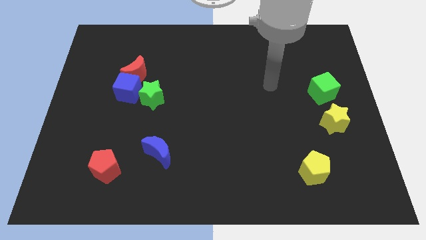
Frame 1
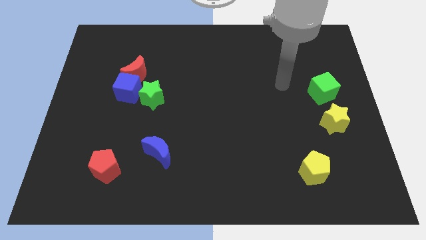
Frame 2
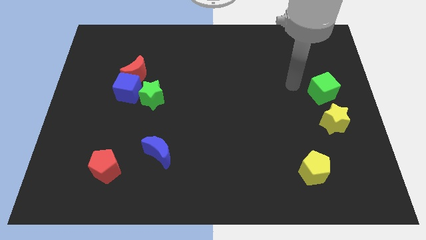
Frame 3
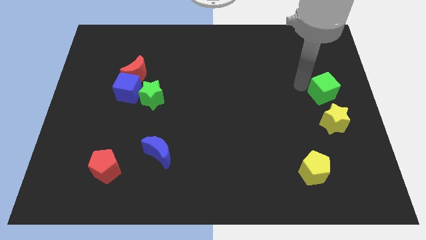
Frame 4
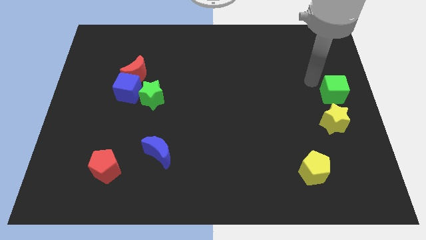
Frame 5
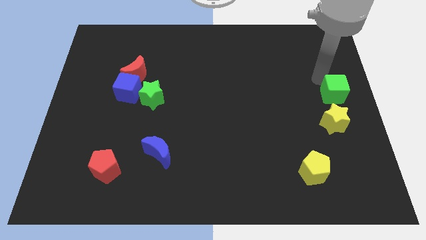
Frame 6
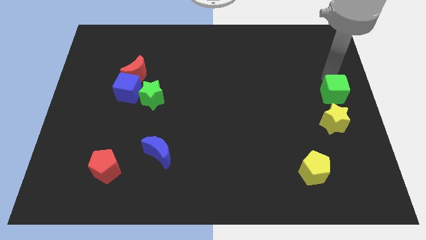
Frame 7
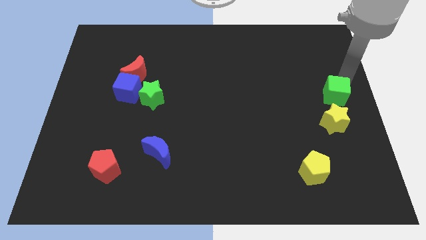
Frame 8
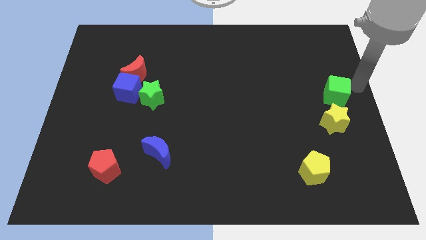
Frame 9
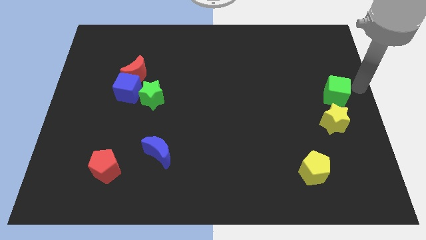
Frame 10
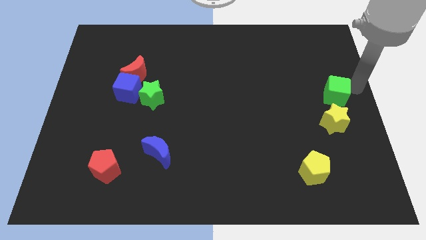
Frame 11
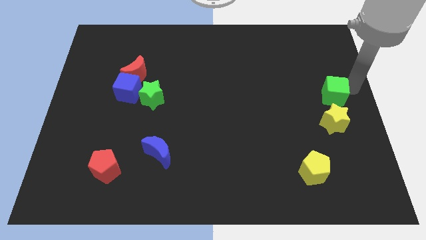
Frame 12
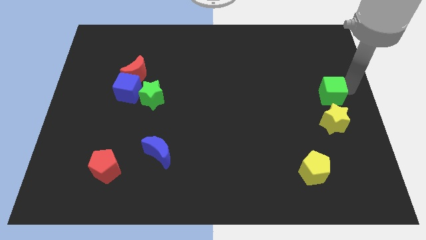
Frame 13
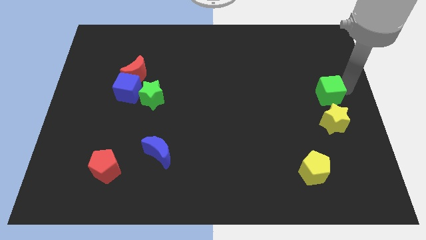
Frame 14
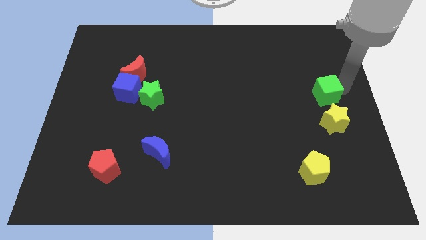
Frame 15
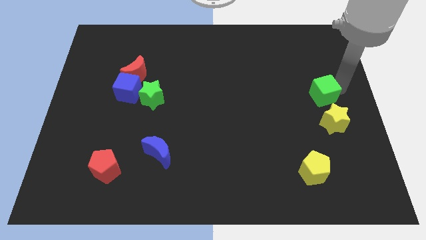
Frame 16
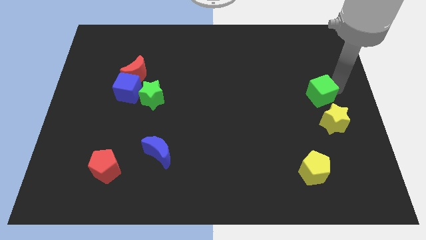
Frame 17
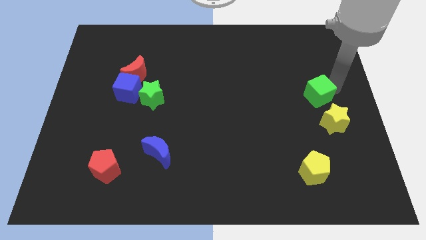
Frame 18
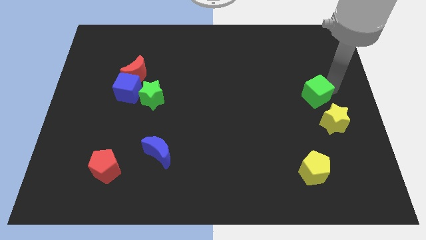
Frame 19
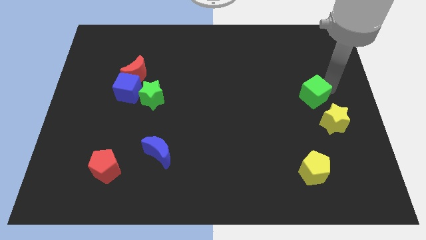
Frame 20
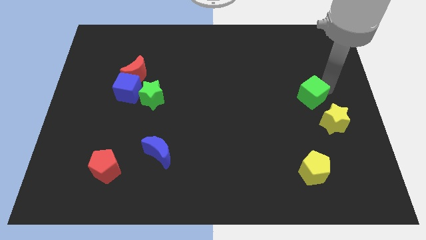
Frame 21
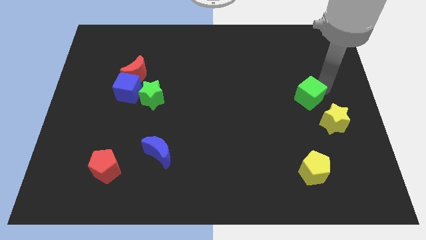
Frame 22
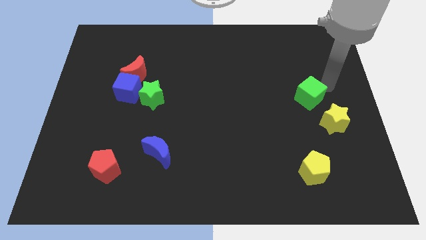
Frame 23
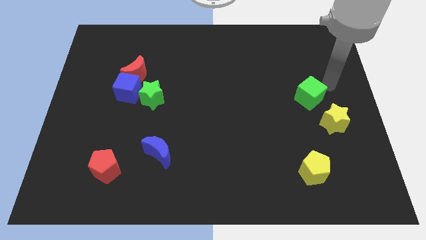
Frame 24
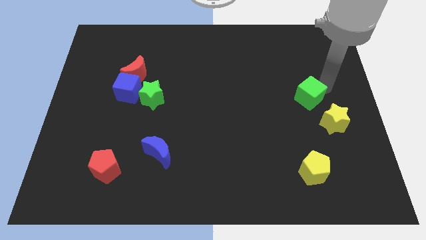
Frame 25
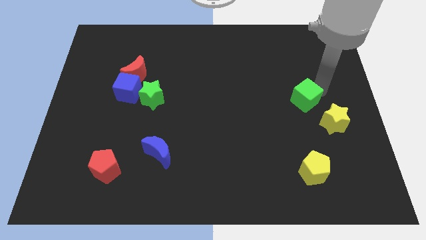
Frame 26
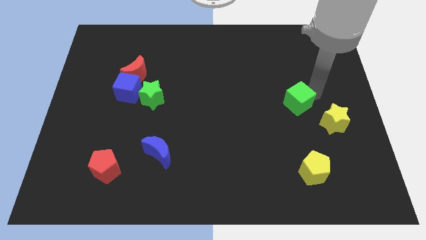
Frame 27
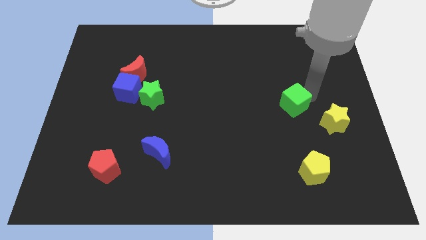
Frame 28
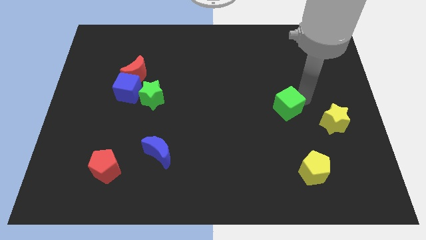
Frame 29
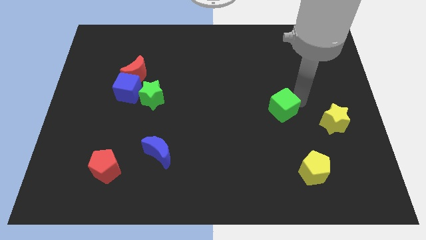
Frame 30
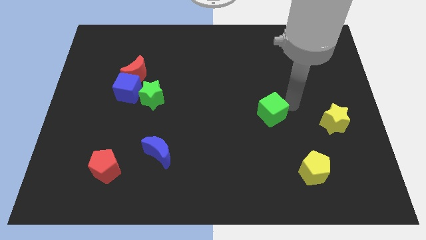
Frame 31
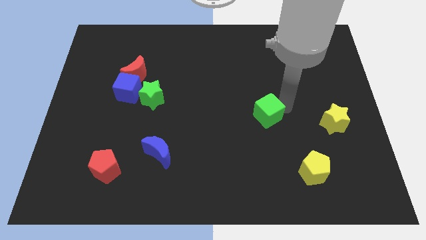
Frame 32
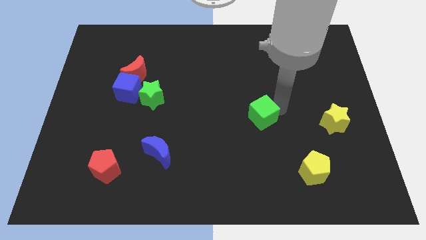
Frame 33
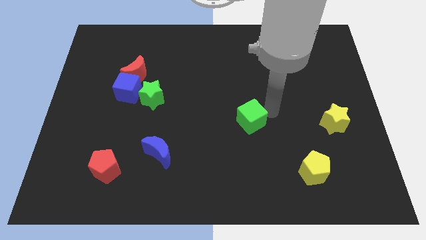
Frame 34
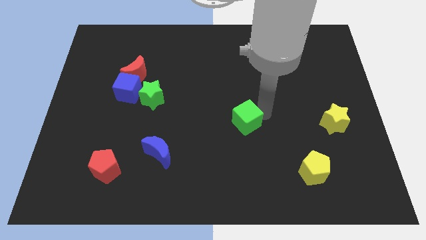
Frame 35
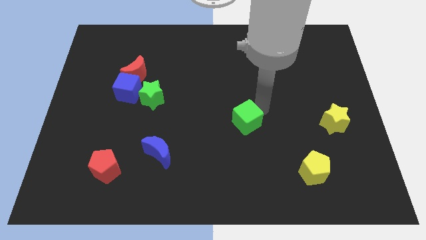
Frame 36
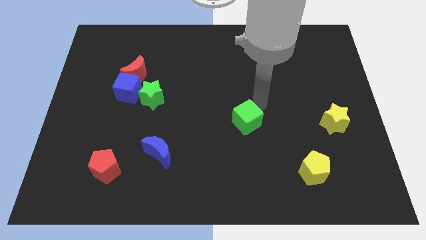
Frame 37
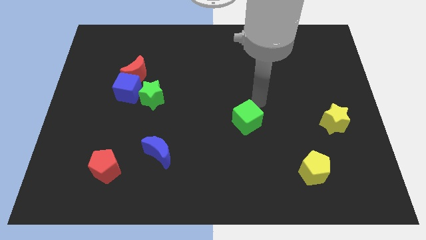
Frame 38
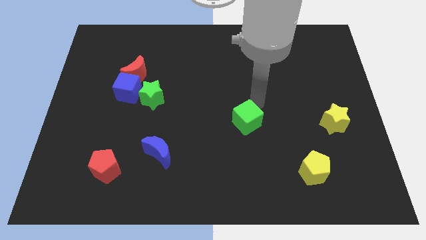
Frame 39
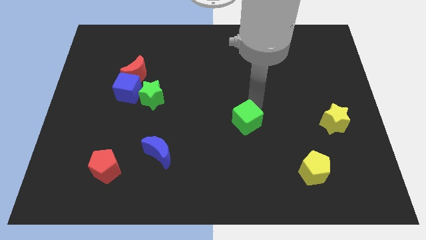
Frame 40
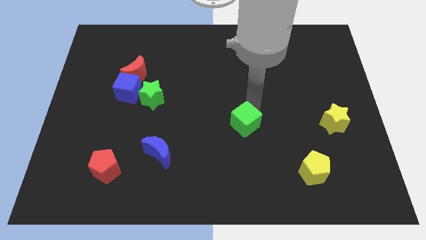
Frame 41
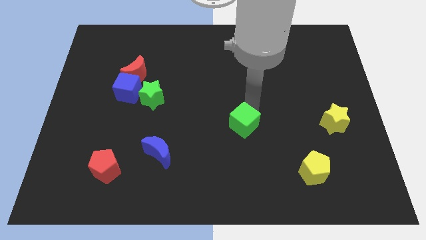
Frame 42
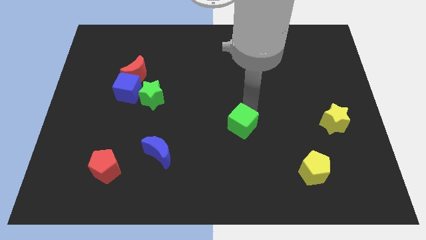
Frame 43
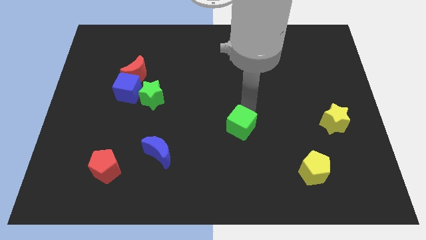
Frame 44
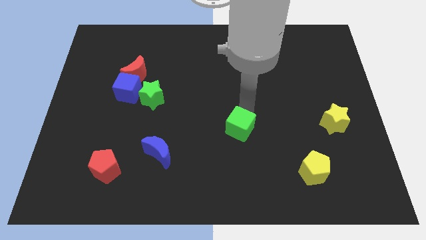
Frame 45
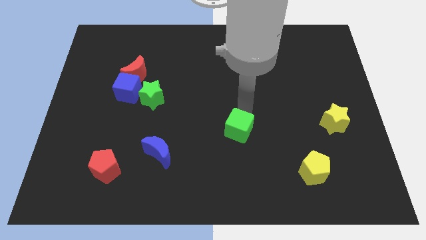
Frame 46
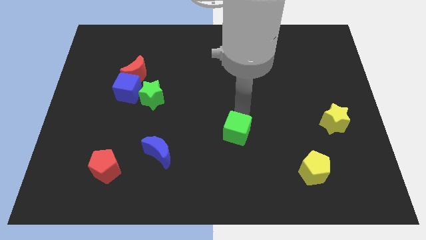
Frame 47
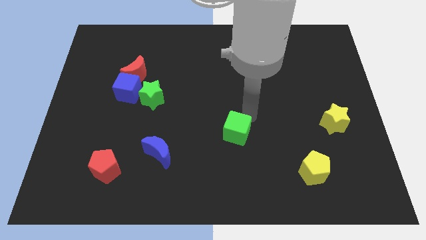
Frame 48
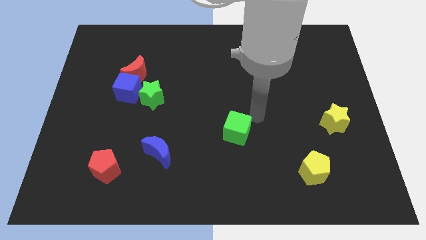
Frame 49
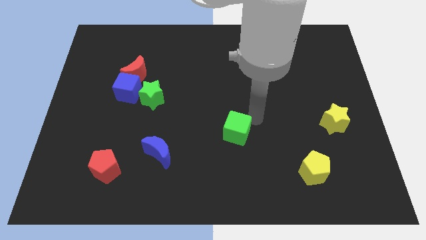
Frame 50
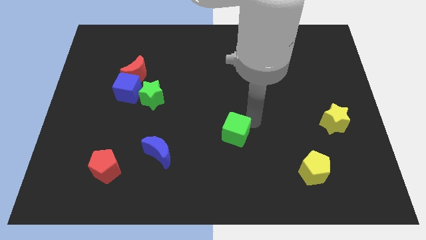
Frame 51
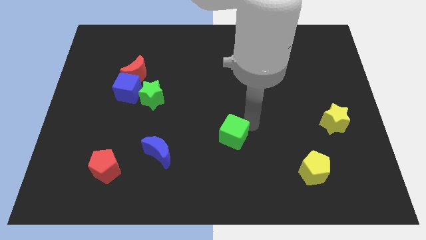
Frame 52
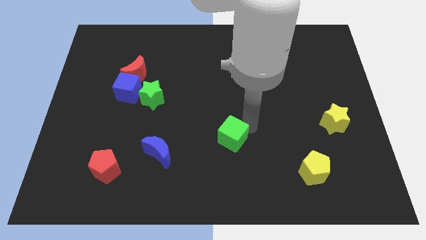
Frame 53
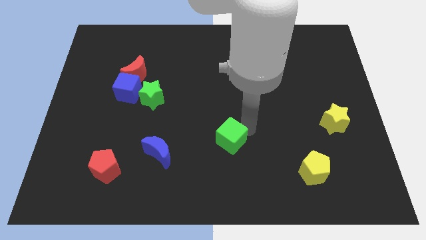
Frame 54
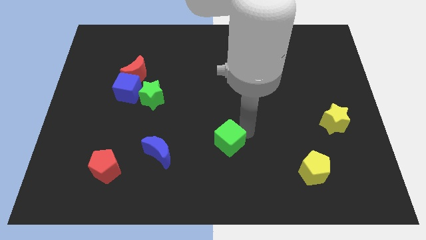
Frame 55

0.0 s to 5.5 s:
push the green cube to the right side of the blue moon

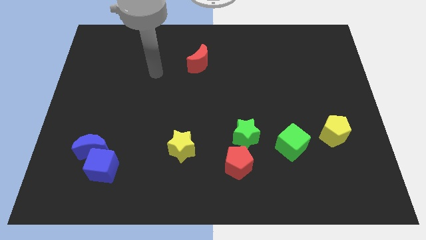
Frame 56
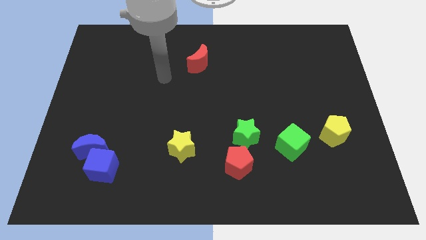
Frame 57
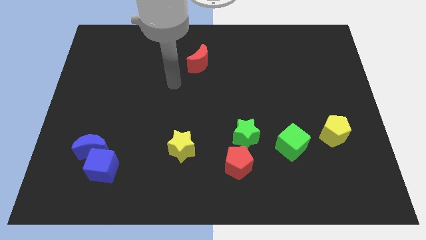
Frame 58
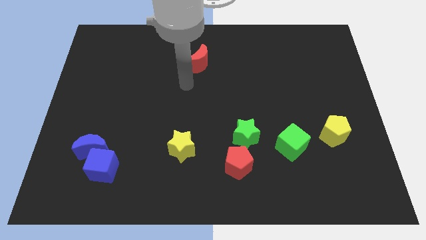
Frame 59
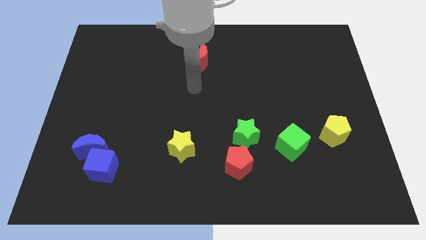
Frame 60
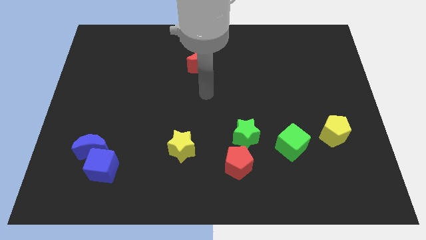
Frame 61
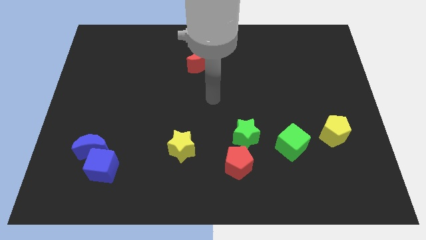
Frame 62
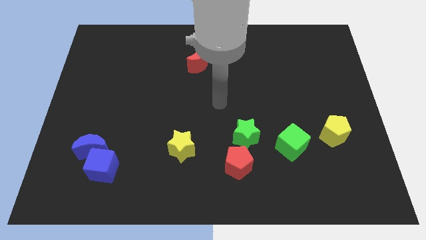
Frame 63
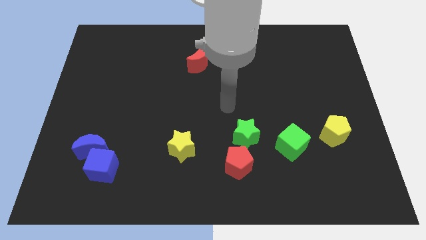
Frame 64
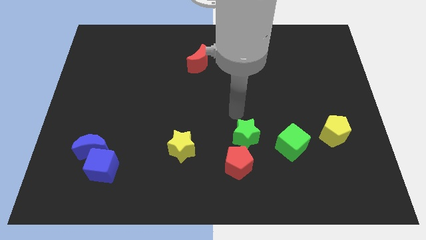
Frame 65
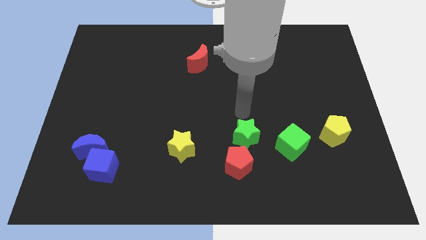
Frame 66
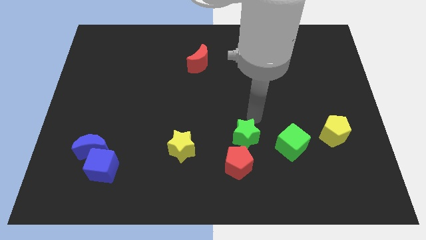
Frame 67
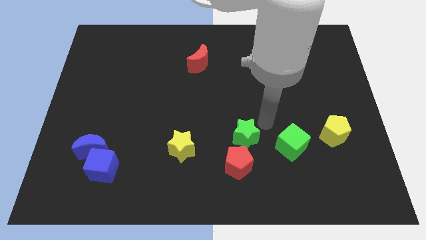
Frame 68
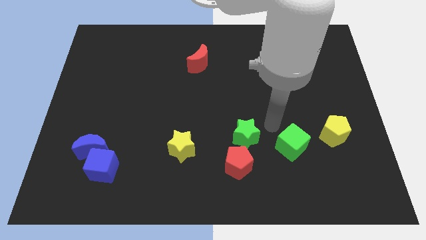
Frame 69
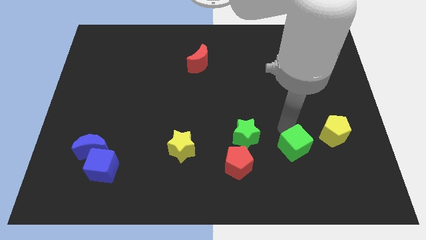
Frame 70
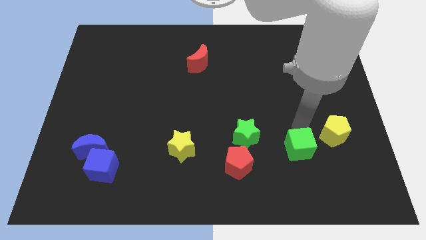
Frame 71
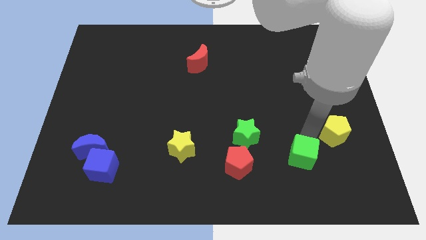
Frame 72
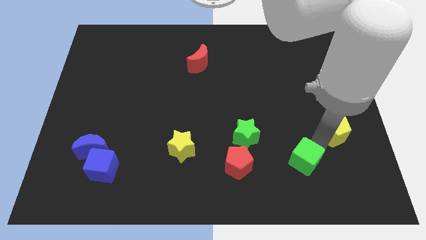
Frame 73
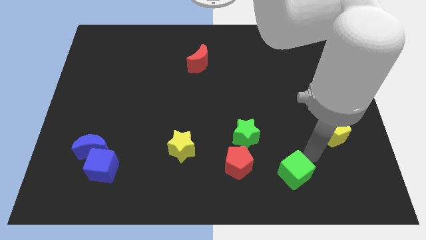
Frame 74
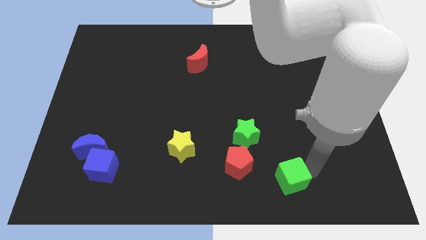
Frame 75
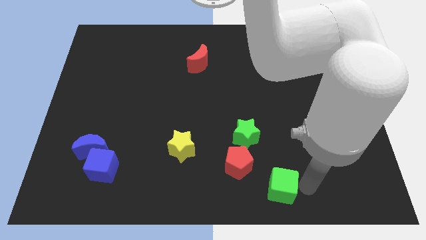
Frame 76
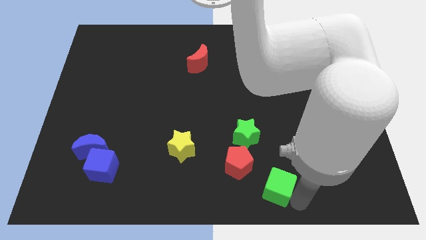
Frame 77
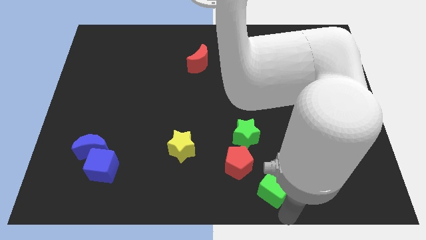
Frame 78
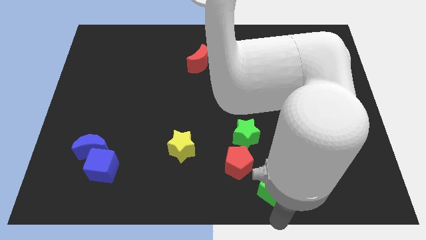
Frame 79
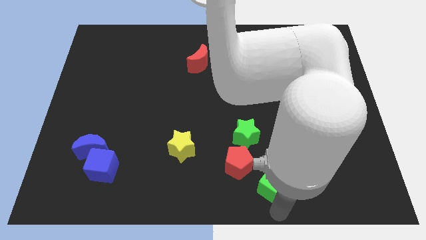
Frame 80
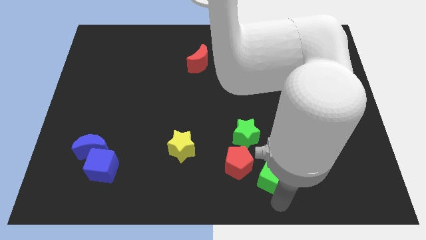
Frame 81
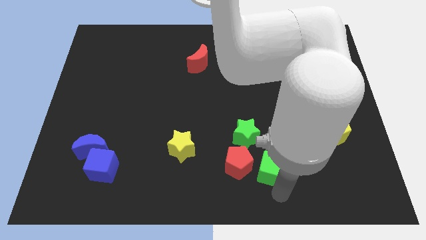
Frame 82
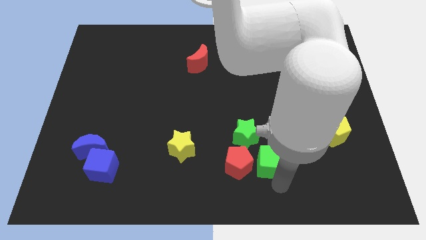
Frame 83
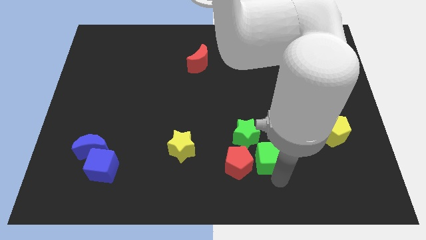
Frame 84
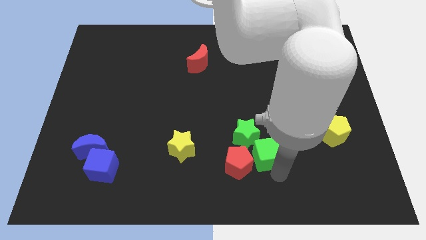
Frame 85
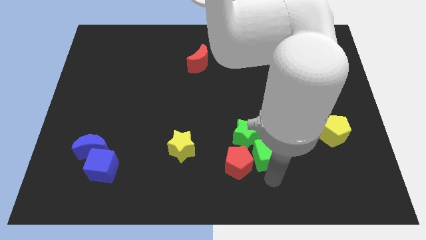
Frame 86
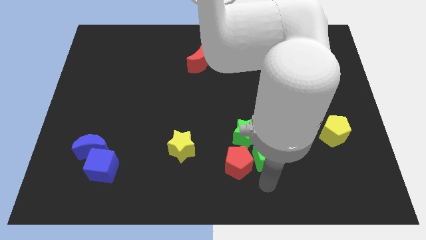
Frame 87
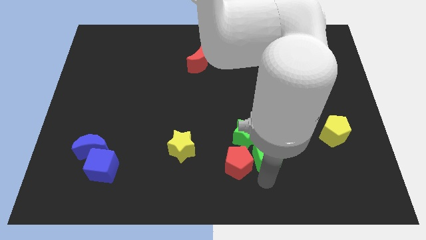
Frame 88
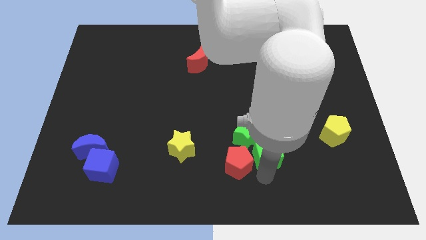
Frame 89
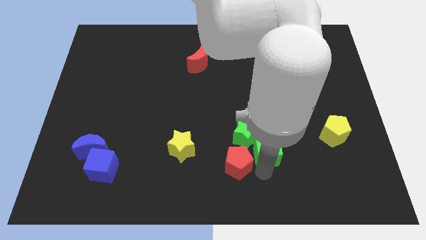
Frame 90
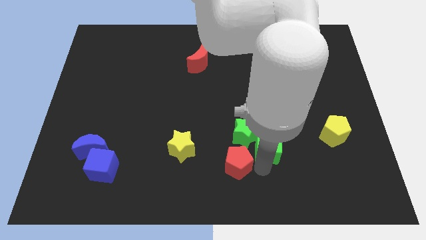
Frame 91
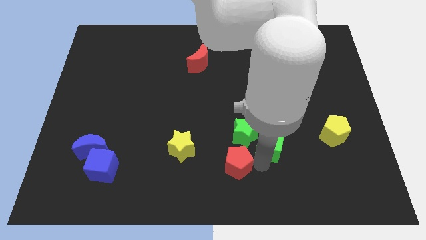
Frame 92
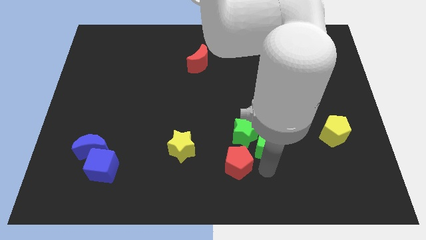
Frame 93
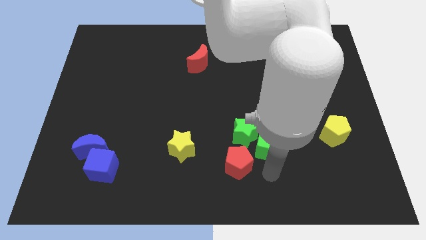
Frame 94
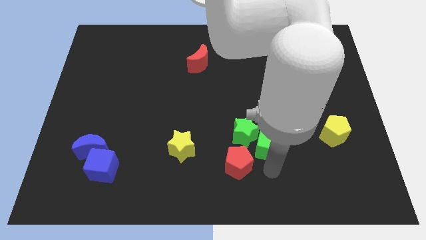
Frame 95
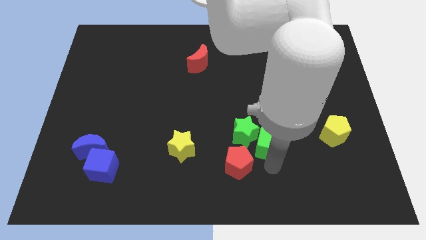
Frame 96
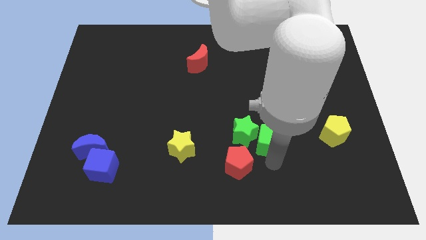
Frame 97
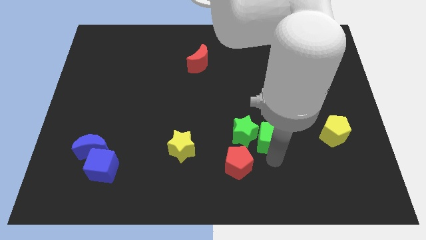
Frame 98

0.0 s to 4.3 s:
push the green cube to the top right side of the green star
